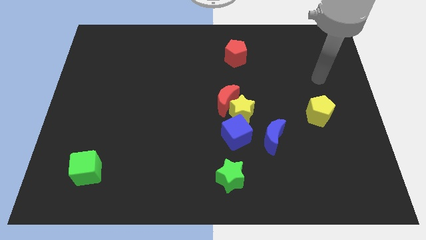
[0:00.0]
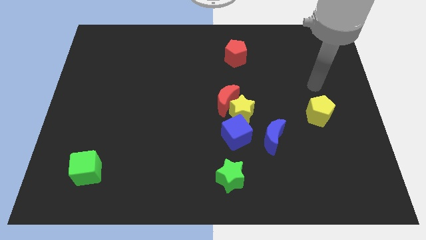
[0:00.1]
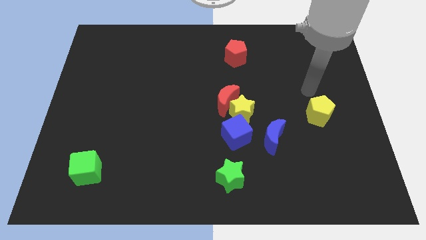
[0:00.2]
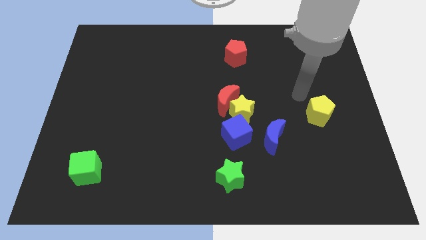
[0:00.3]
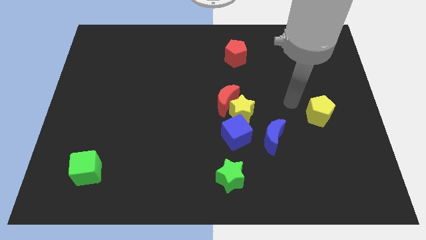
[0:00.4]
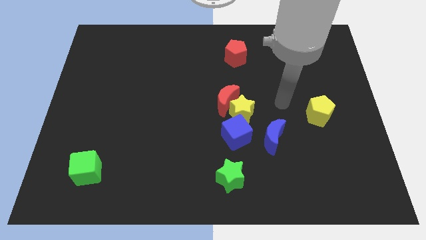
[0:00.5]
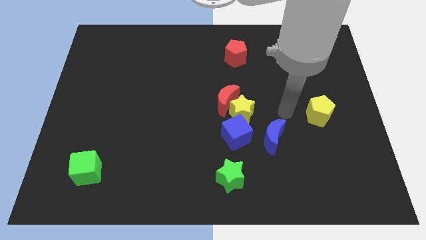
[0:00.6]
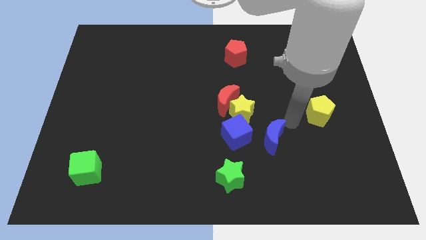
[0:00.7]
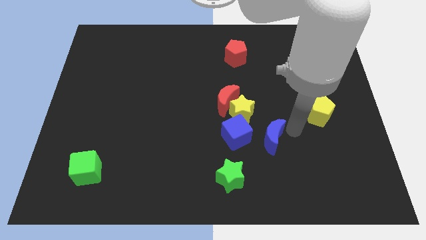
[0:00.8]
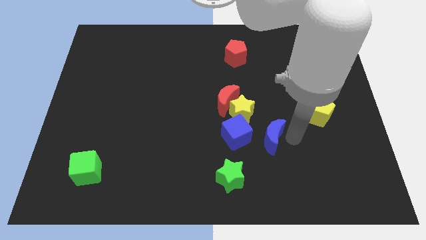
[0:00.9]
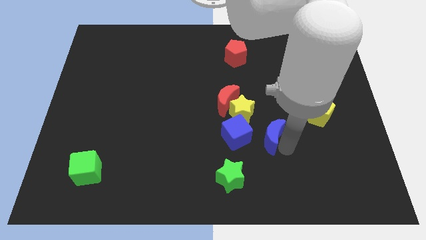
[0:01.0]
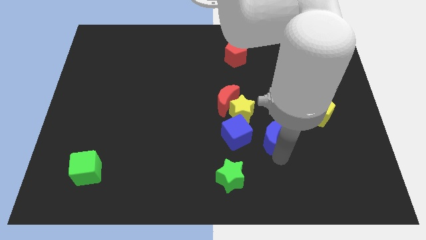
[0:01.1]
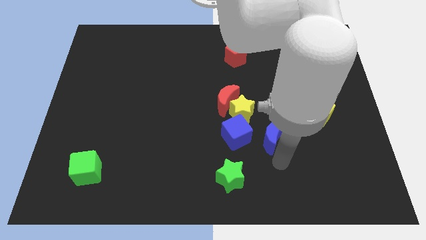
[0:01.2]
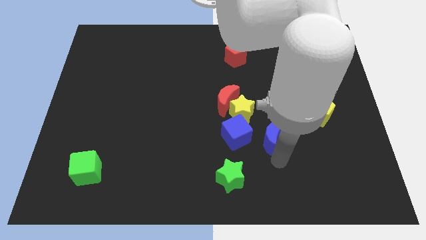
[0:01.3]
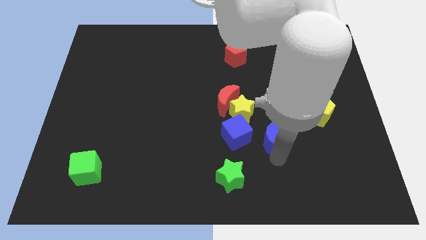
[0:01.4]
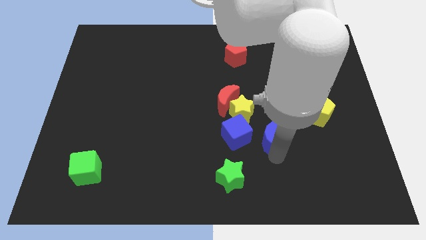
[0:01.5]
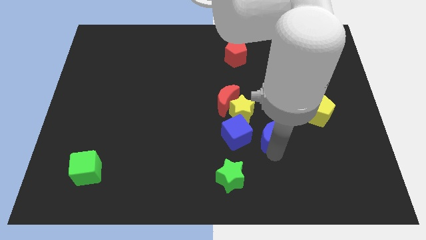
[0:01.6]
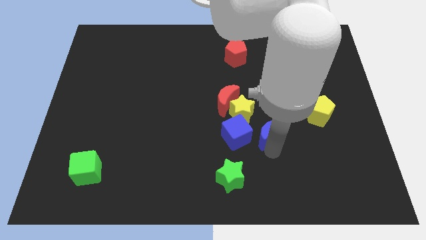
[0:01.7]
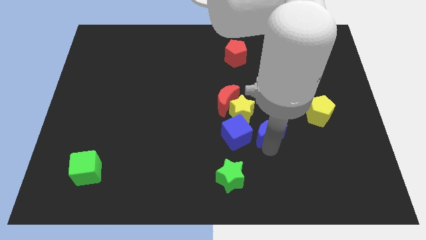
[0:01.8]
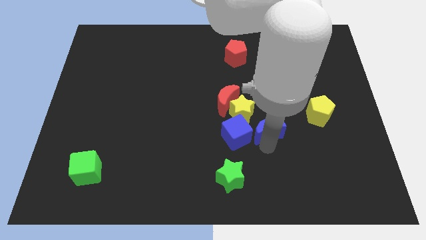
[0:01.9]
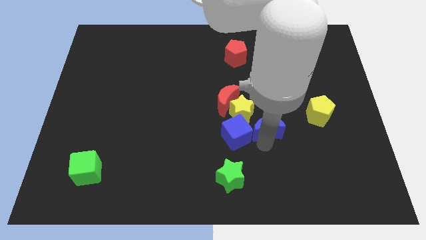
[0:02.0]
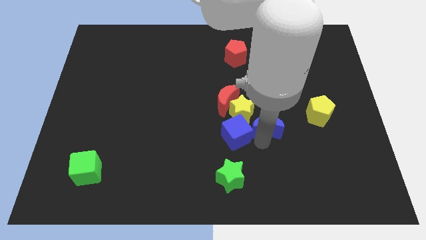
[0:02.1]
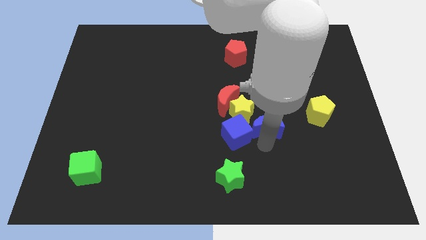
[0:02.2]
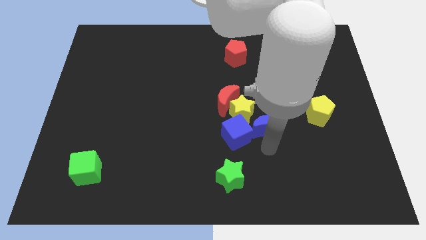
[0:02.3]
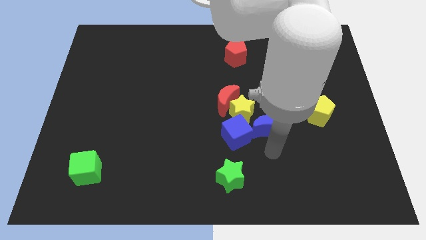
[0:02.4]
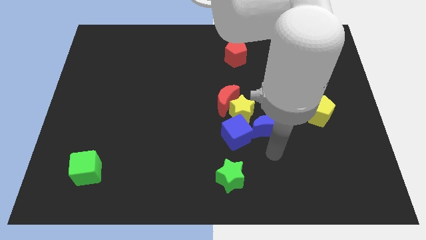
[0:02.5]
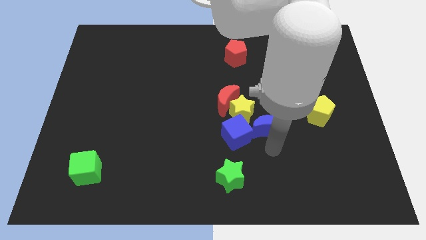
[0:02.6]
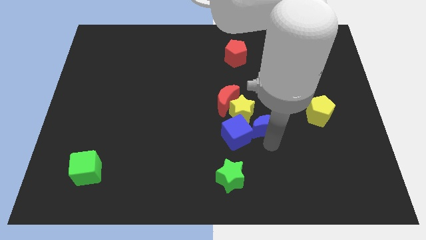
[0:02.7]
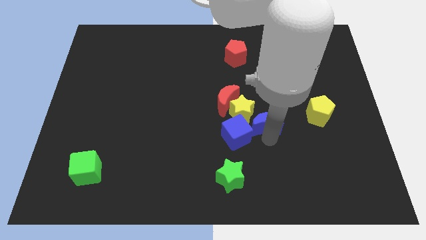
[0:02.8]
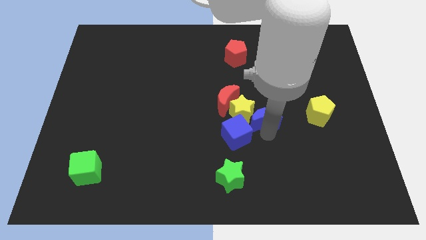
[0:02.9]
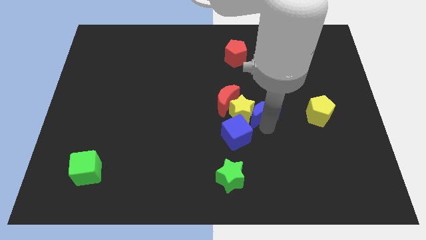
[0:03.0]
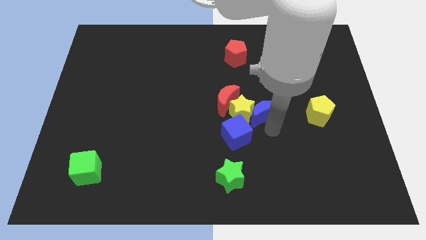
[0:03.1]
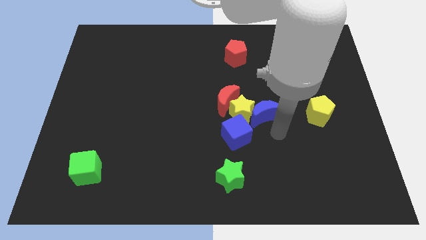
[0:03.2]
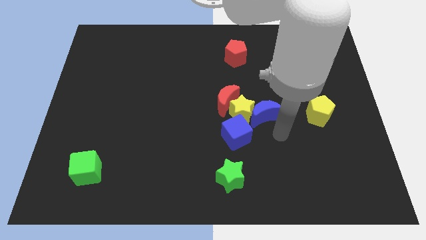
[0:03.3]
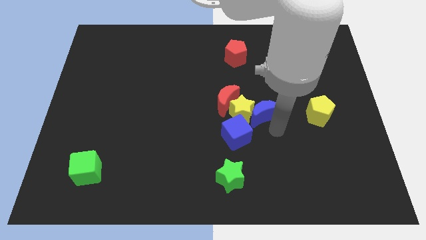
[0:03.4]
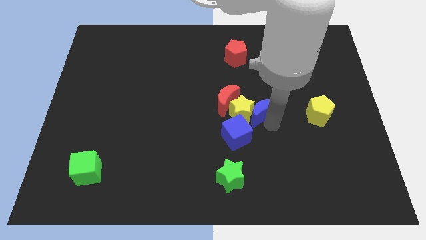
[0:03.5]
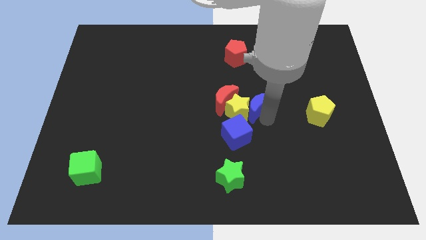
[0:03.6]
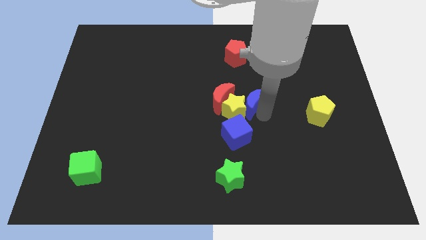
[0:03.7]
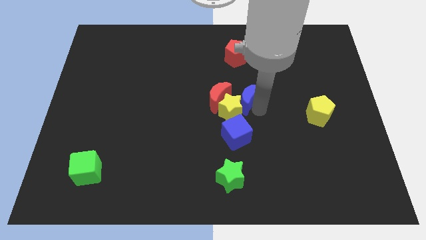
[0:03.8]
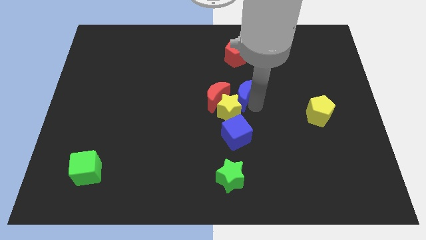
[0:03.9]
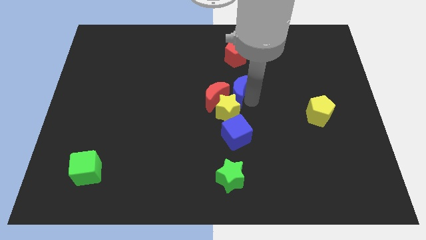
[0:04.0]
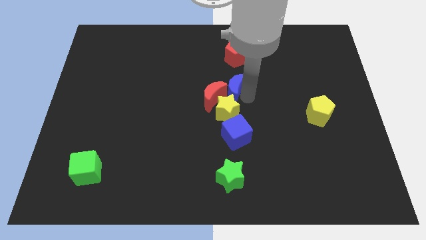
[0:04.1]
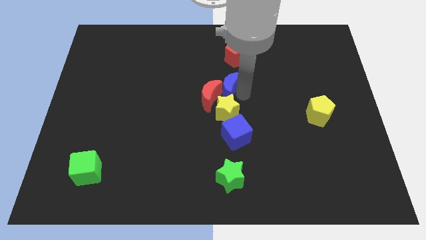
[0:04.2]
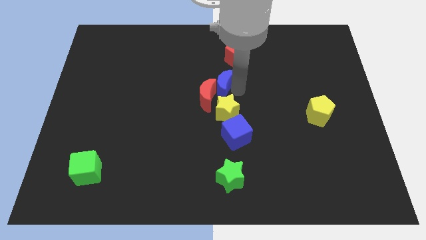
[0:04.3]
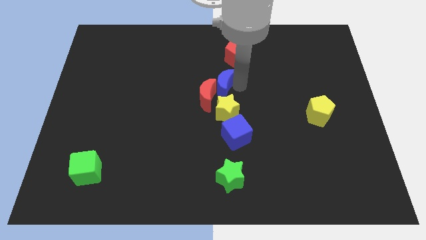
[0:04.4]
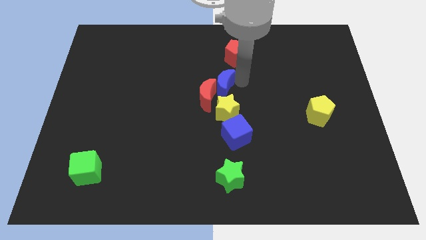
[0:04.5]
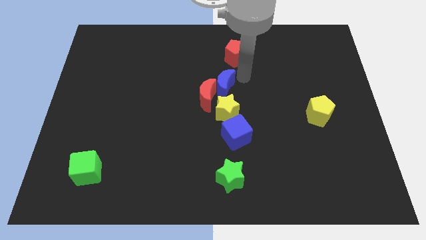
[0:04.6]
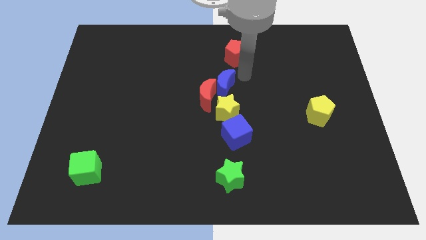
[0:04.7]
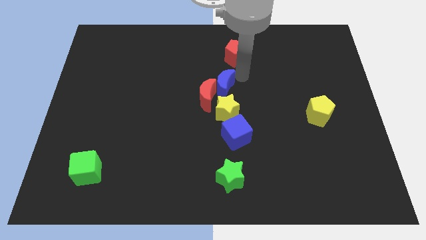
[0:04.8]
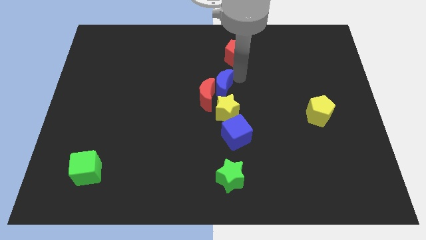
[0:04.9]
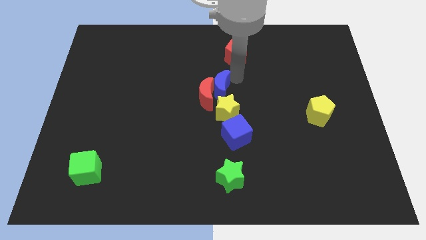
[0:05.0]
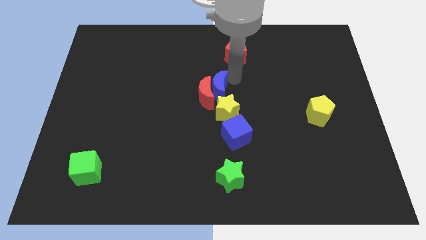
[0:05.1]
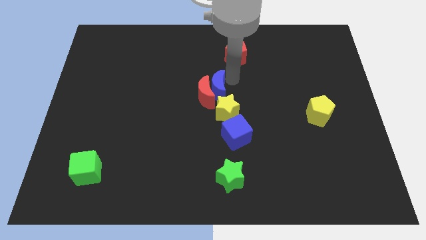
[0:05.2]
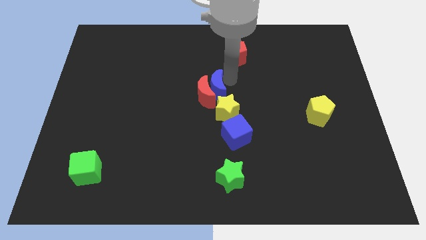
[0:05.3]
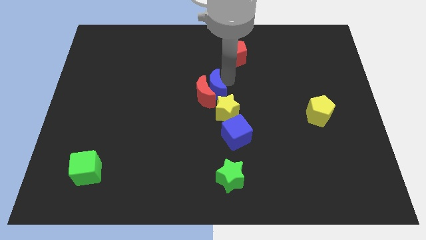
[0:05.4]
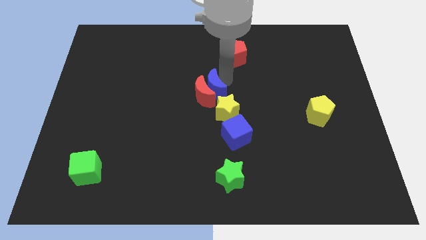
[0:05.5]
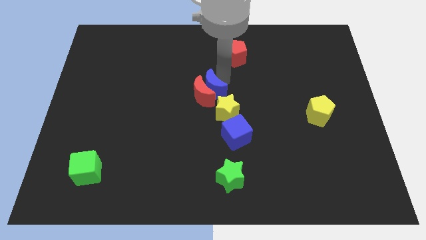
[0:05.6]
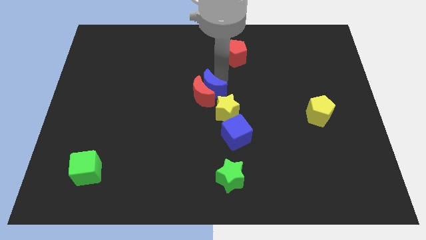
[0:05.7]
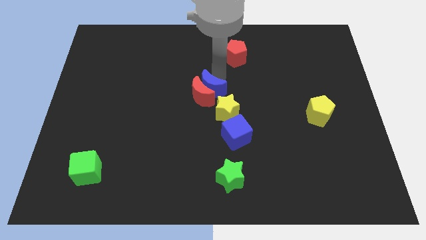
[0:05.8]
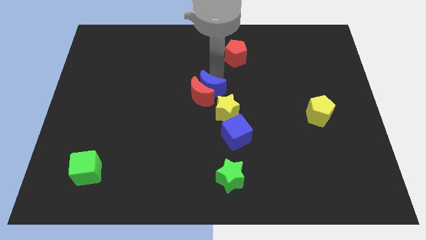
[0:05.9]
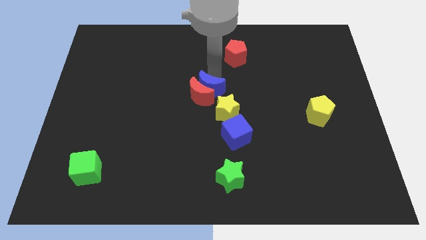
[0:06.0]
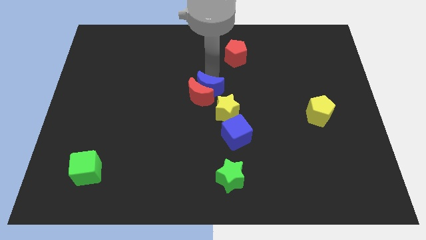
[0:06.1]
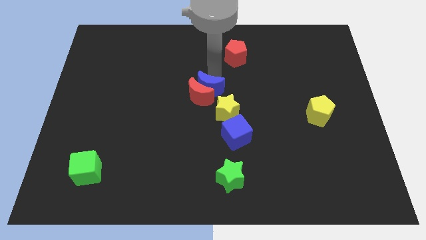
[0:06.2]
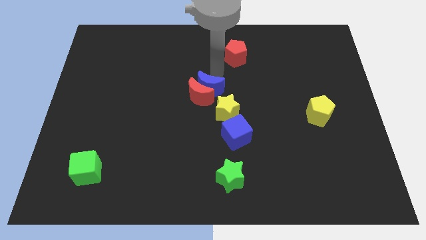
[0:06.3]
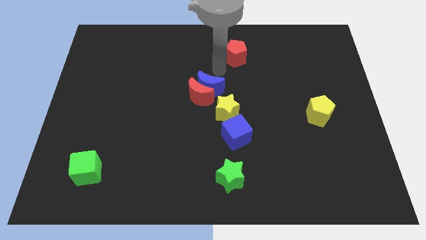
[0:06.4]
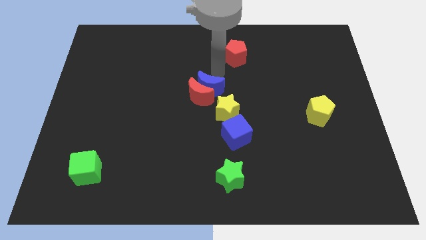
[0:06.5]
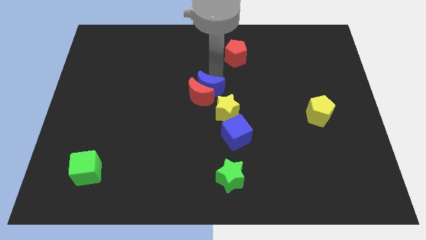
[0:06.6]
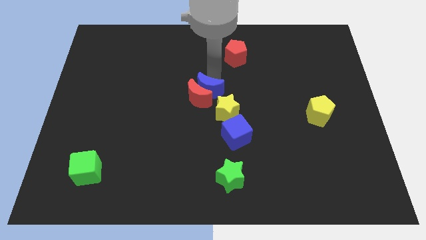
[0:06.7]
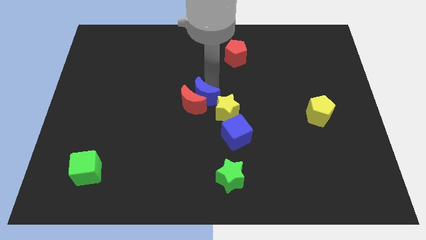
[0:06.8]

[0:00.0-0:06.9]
move the blue moon to the left a little bit

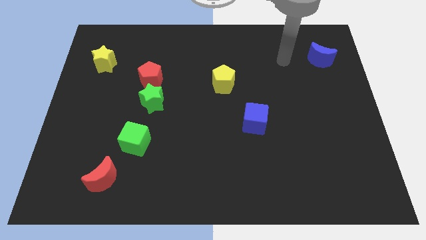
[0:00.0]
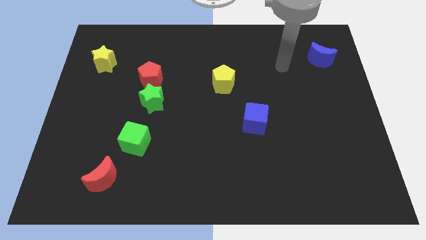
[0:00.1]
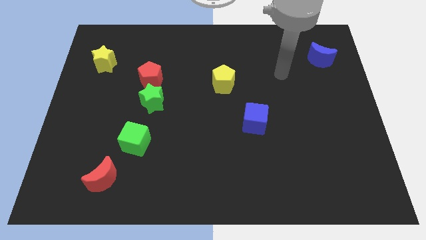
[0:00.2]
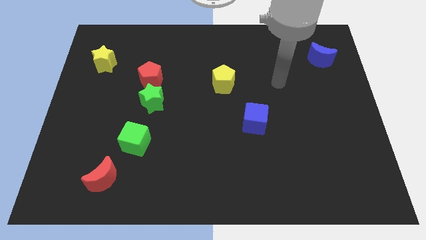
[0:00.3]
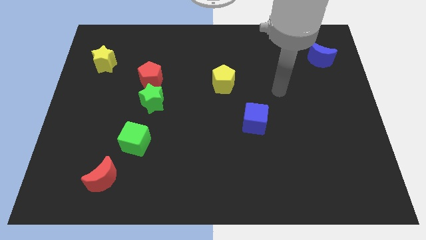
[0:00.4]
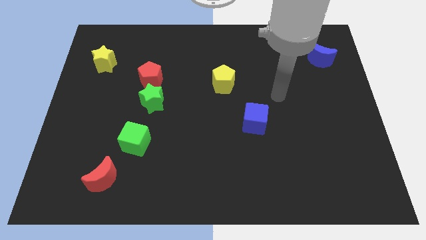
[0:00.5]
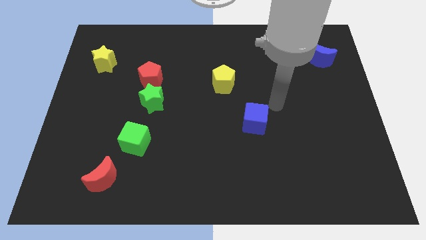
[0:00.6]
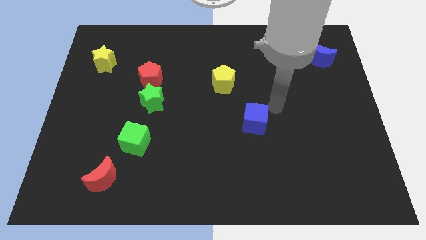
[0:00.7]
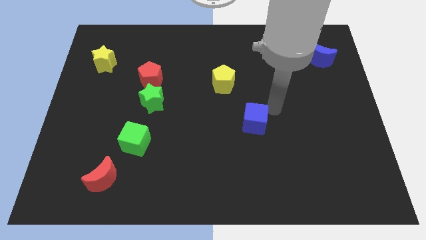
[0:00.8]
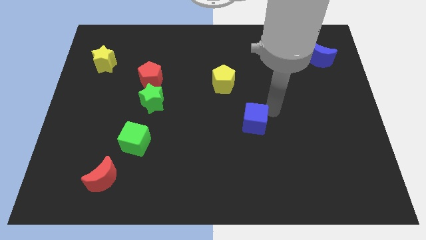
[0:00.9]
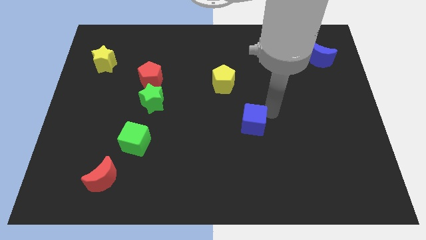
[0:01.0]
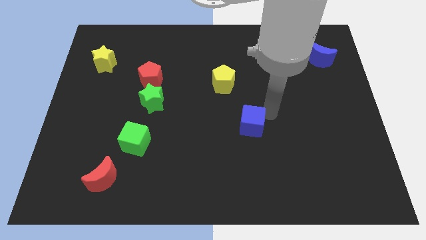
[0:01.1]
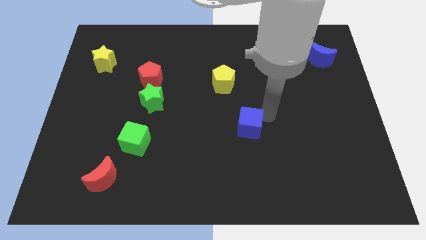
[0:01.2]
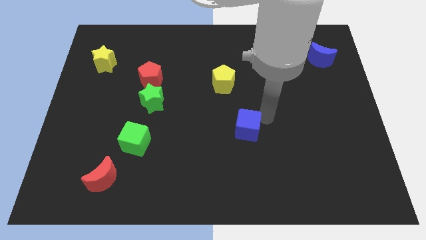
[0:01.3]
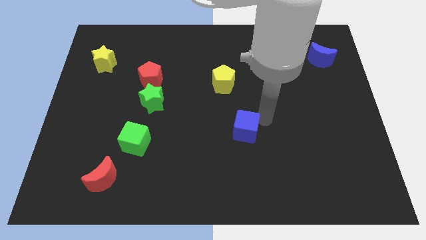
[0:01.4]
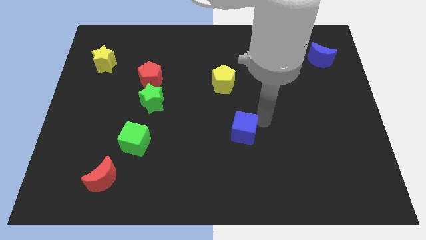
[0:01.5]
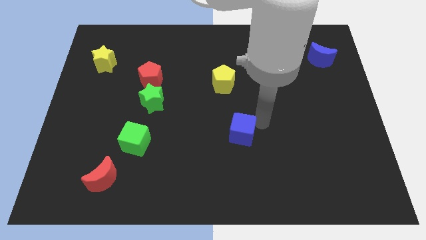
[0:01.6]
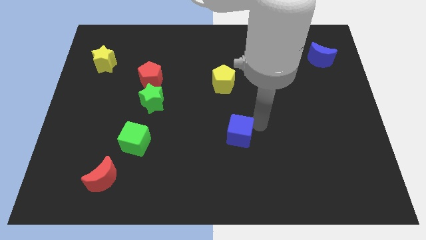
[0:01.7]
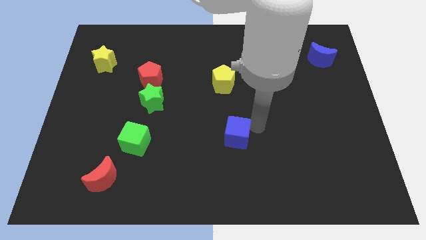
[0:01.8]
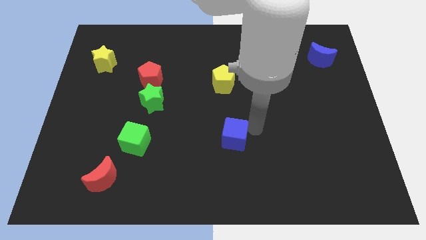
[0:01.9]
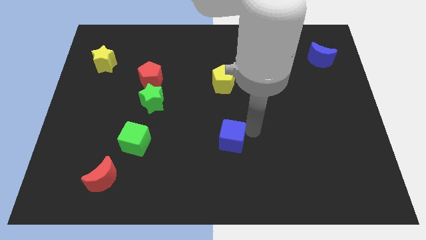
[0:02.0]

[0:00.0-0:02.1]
move the blue cube a bit diagonally down and to the left
